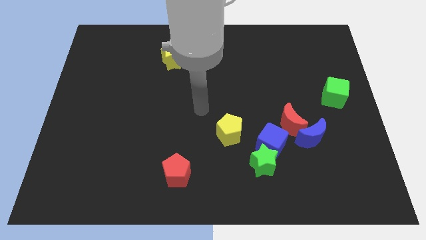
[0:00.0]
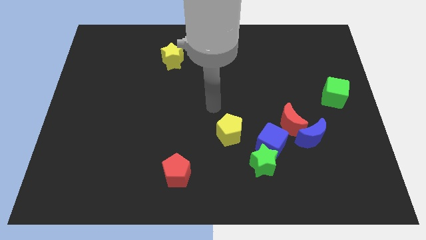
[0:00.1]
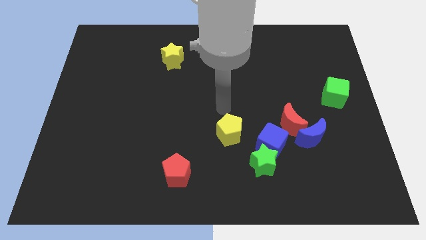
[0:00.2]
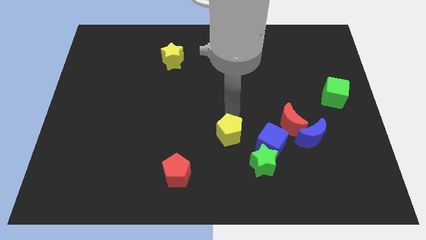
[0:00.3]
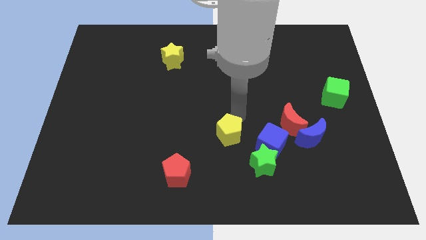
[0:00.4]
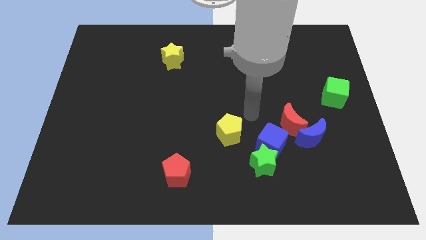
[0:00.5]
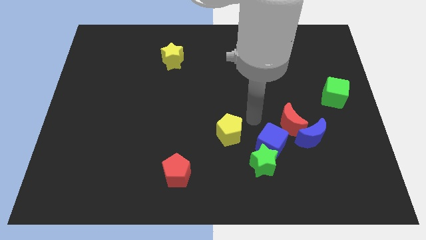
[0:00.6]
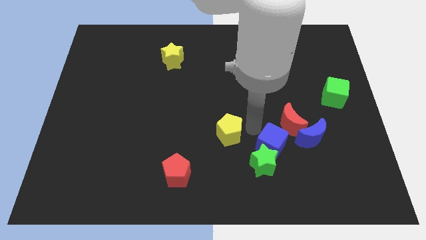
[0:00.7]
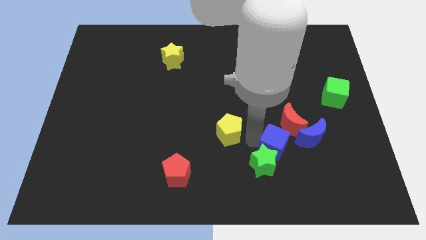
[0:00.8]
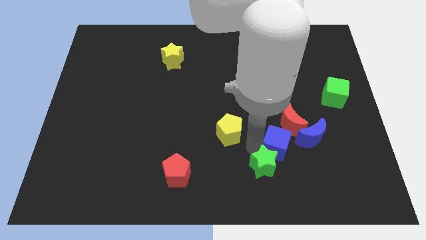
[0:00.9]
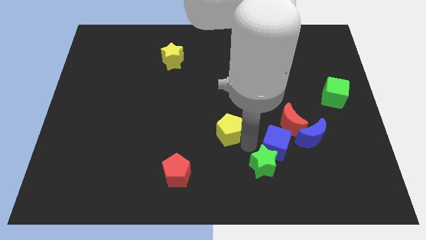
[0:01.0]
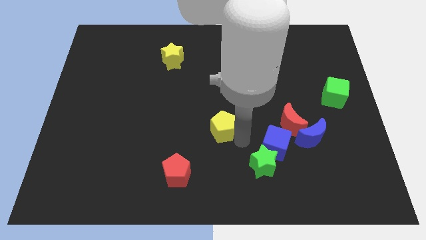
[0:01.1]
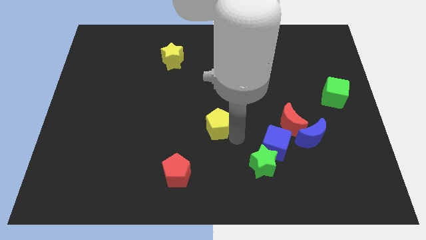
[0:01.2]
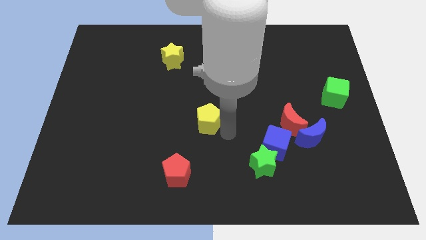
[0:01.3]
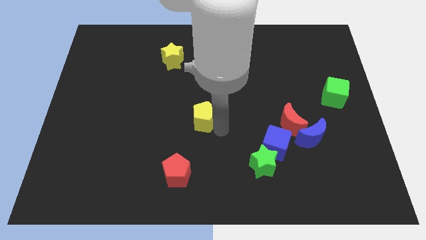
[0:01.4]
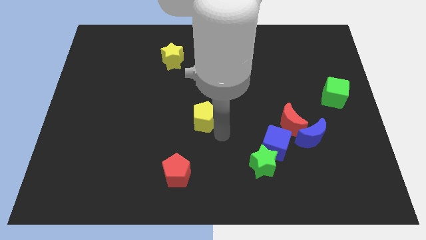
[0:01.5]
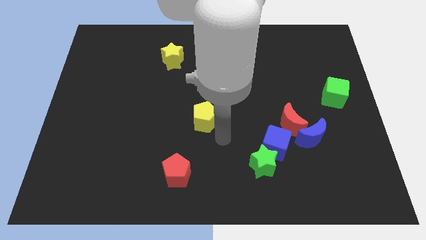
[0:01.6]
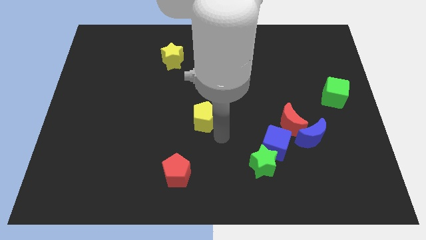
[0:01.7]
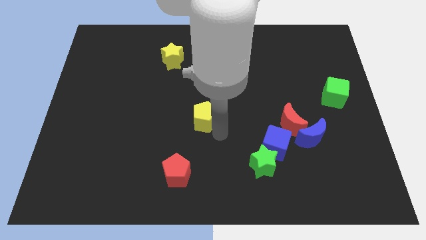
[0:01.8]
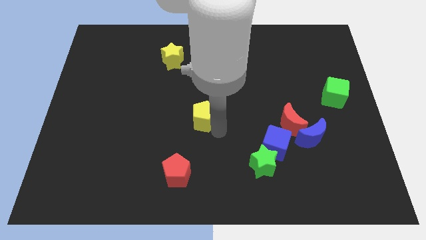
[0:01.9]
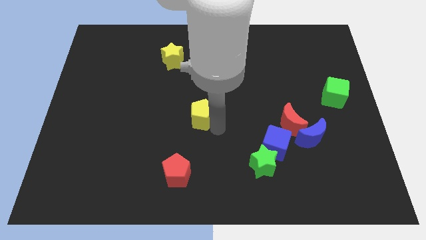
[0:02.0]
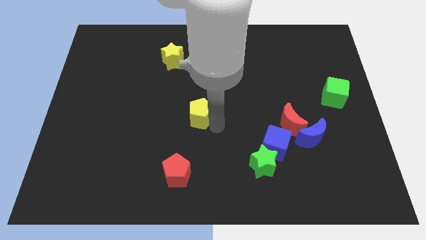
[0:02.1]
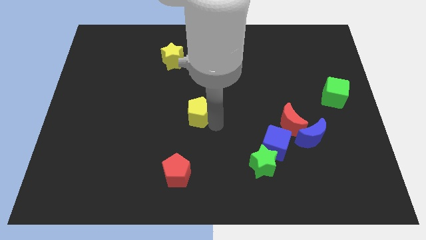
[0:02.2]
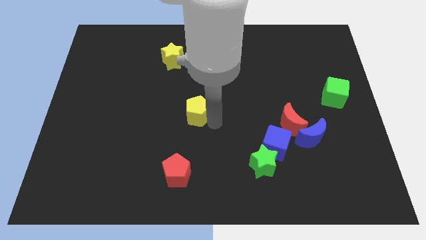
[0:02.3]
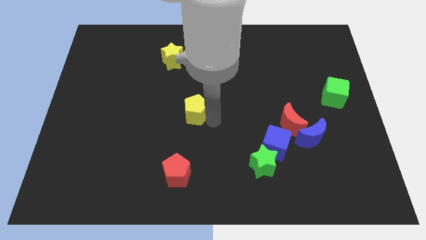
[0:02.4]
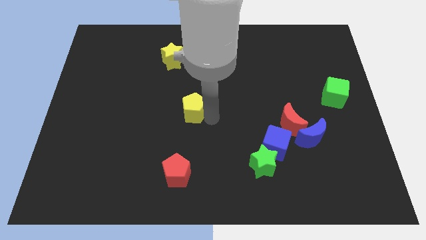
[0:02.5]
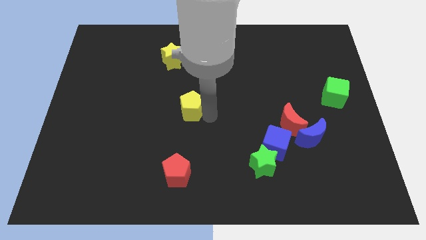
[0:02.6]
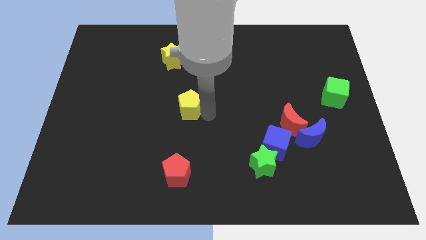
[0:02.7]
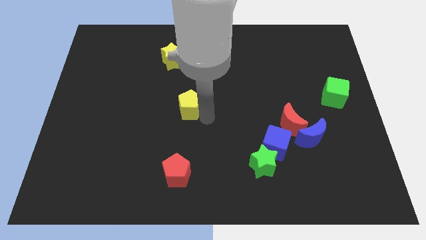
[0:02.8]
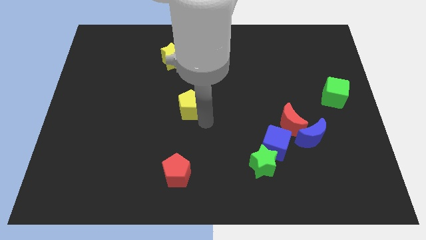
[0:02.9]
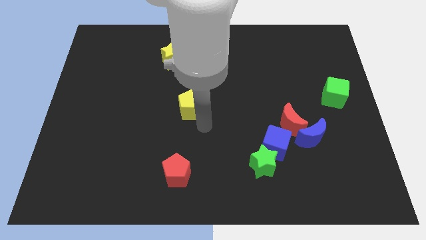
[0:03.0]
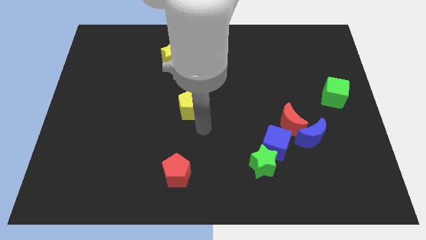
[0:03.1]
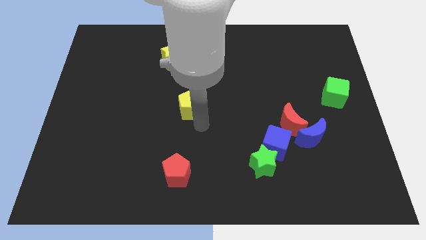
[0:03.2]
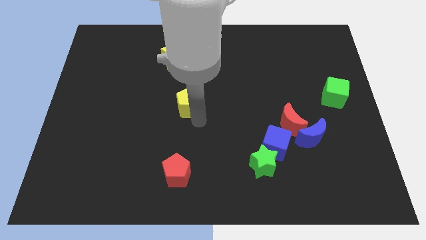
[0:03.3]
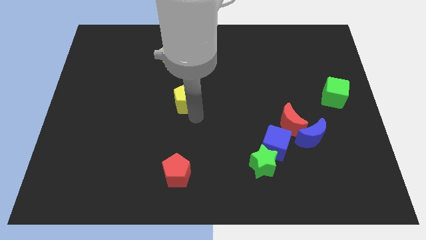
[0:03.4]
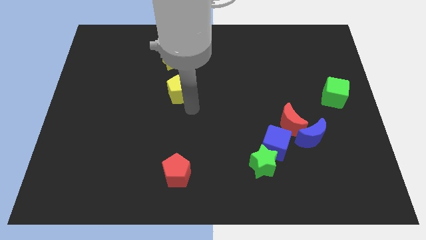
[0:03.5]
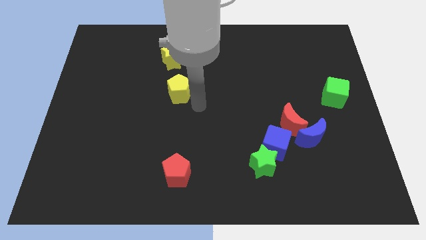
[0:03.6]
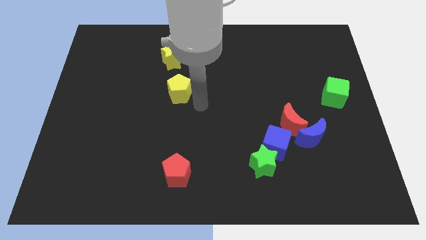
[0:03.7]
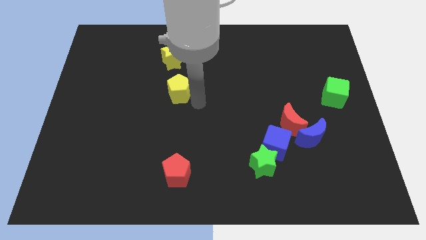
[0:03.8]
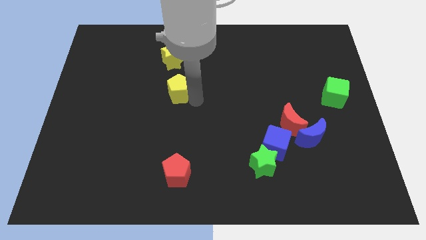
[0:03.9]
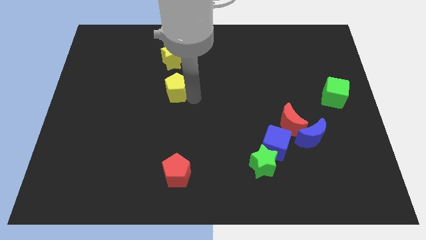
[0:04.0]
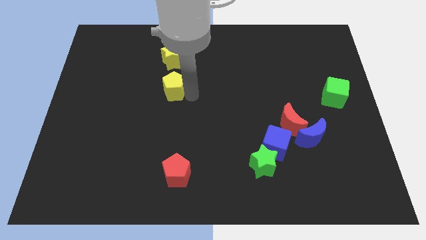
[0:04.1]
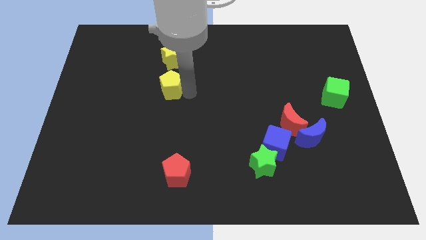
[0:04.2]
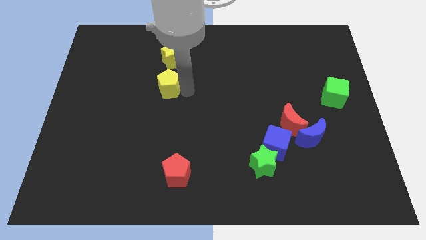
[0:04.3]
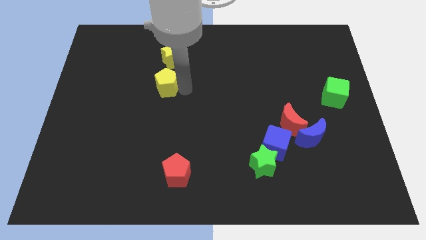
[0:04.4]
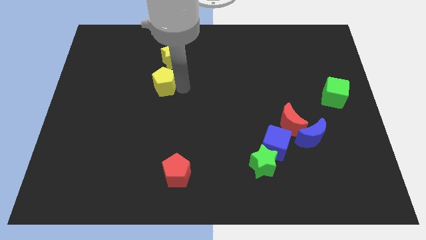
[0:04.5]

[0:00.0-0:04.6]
push the yellow pentagon diagonally down and to the left of the yellow star

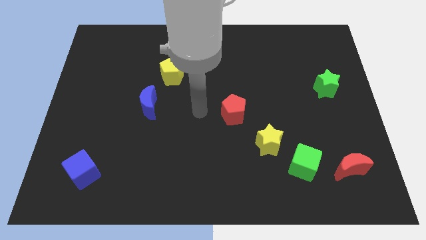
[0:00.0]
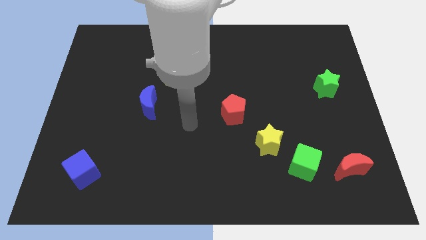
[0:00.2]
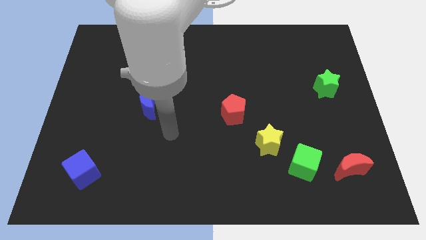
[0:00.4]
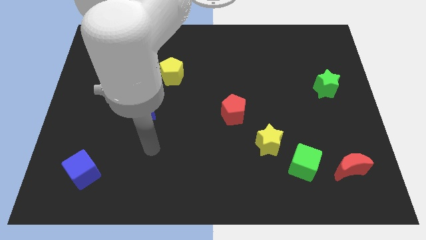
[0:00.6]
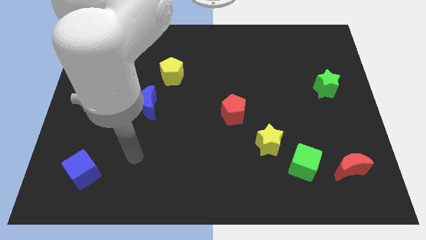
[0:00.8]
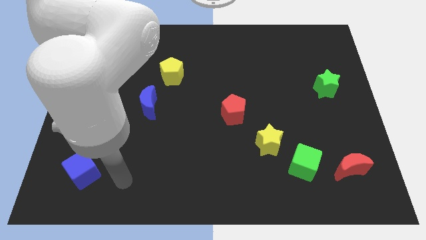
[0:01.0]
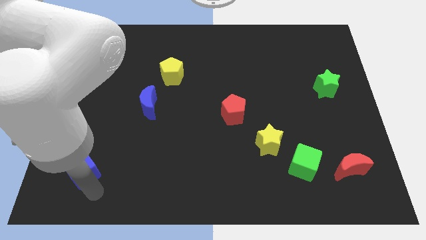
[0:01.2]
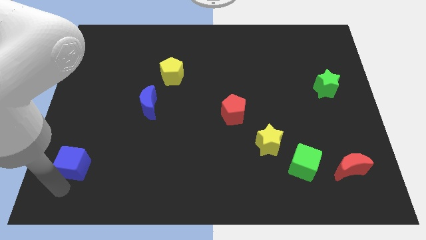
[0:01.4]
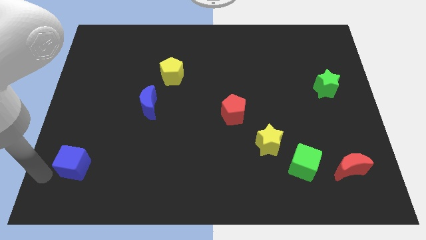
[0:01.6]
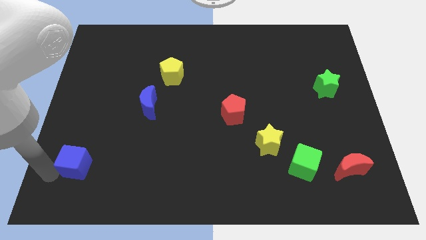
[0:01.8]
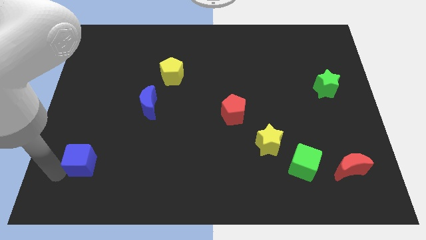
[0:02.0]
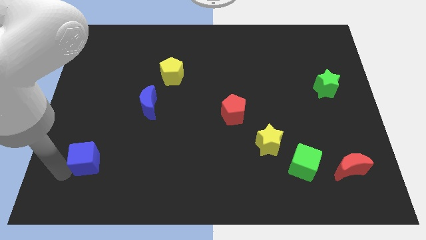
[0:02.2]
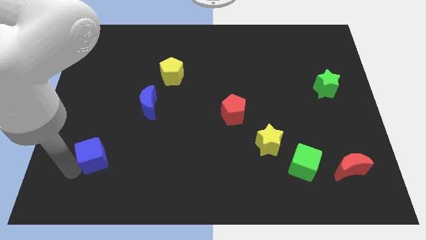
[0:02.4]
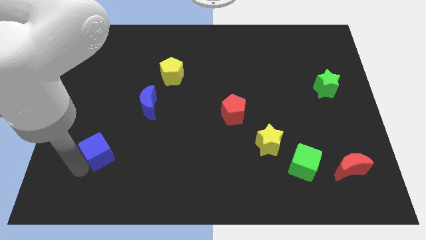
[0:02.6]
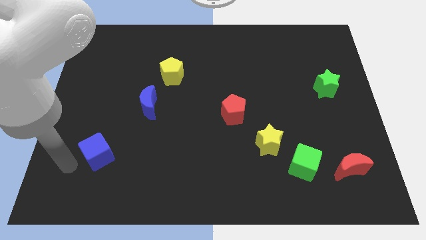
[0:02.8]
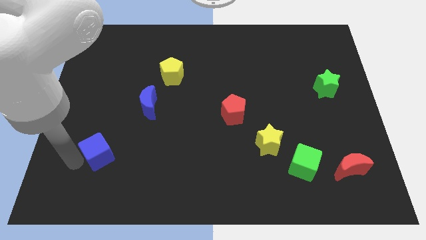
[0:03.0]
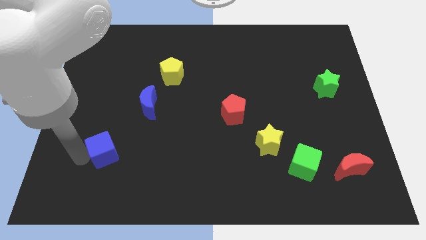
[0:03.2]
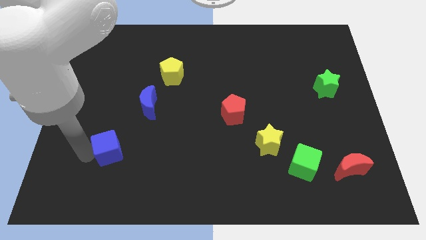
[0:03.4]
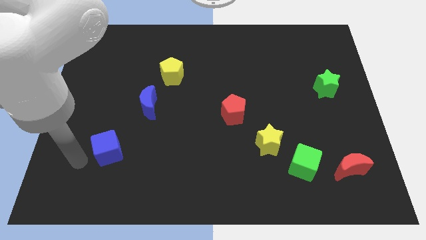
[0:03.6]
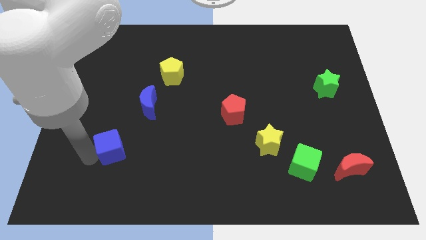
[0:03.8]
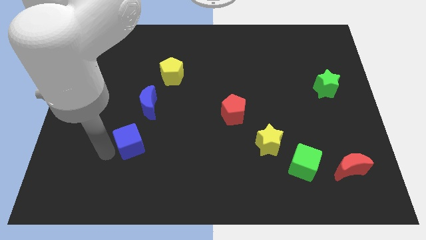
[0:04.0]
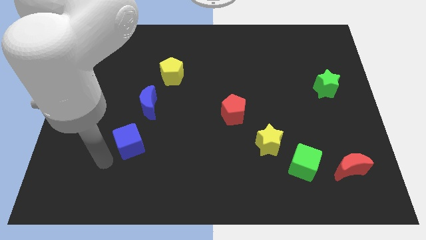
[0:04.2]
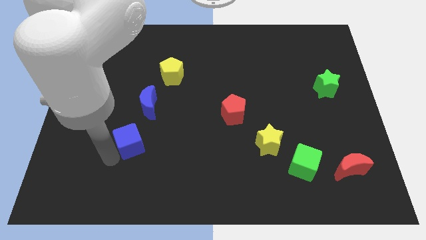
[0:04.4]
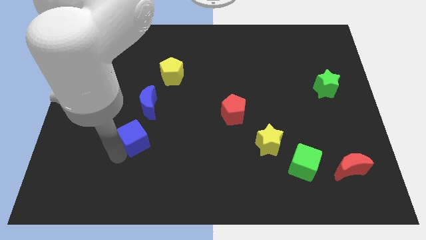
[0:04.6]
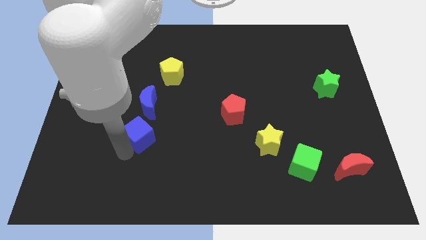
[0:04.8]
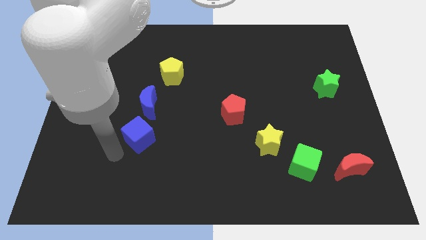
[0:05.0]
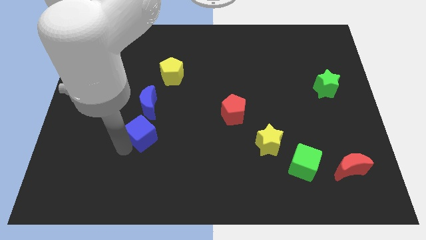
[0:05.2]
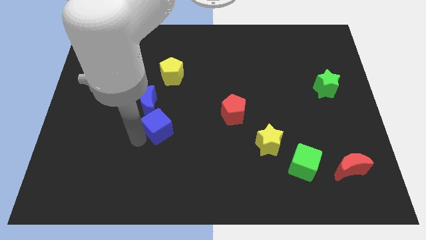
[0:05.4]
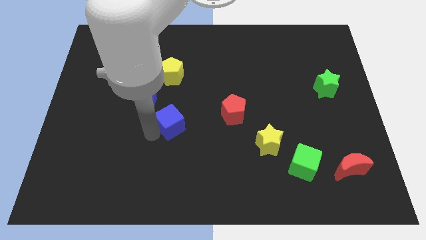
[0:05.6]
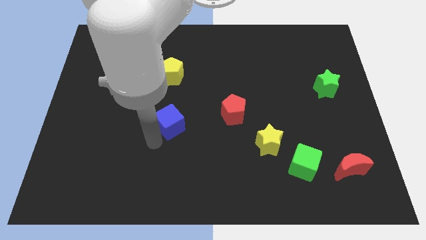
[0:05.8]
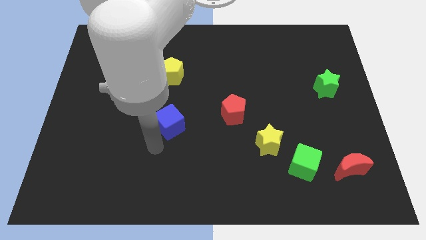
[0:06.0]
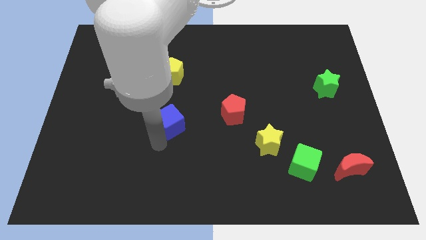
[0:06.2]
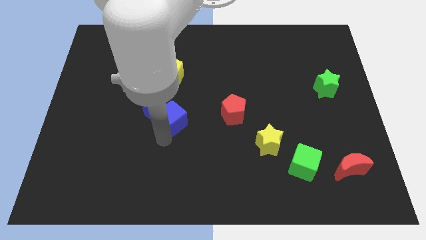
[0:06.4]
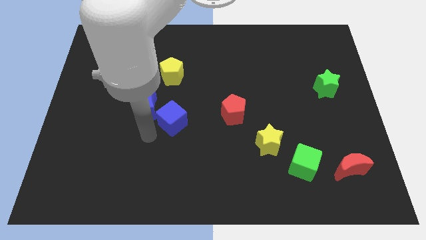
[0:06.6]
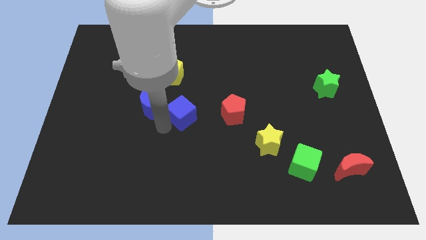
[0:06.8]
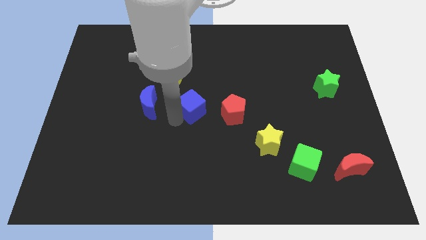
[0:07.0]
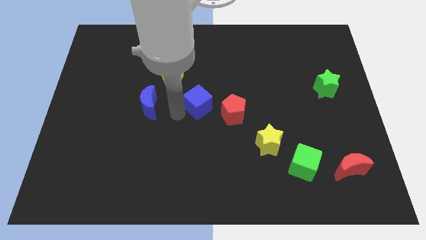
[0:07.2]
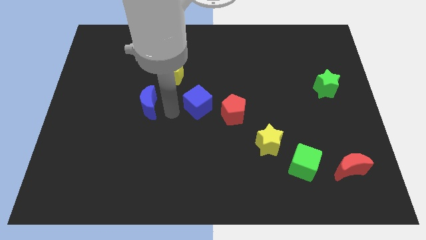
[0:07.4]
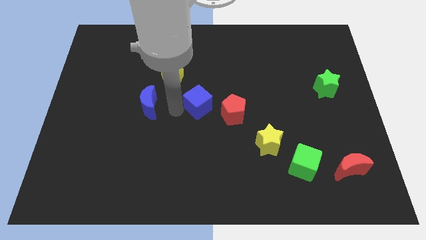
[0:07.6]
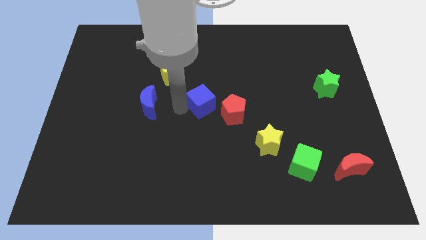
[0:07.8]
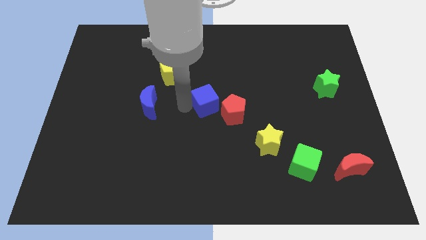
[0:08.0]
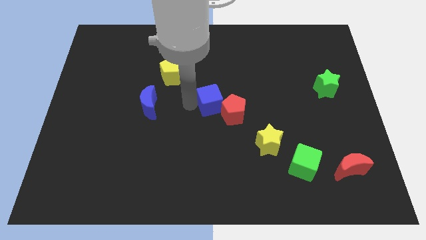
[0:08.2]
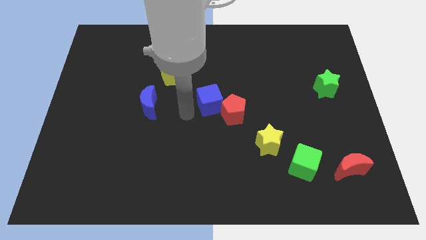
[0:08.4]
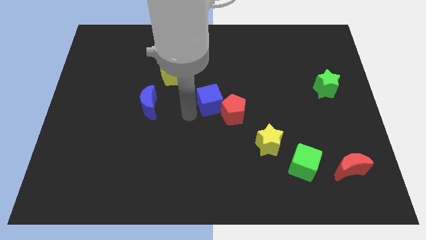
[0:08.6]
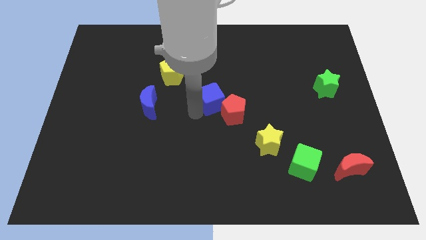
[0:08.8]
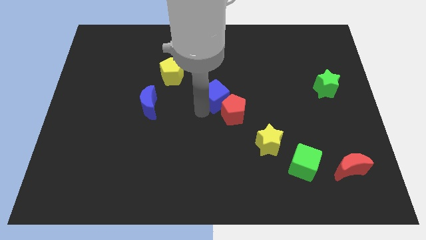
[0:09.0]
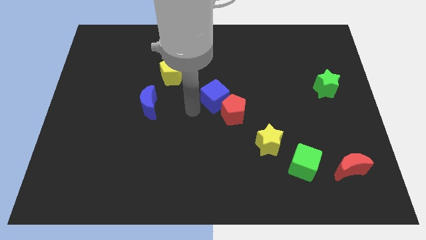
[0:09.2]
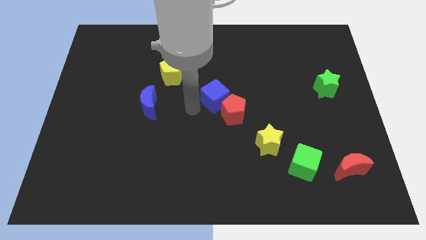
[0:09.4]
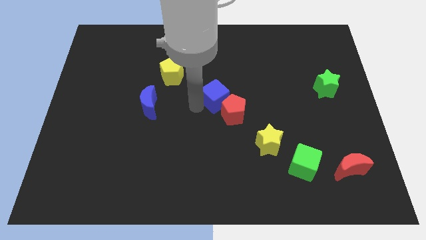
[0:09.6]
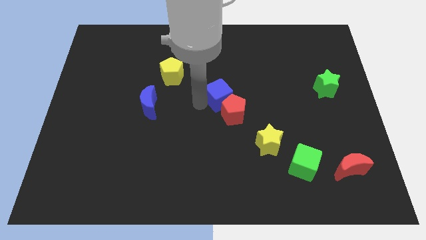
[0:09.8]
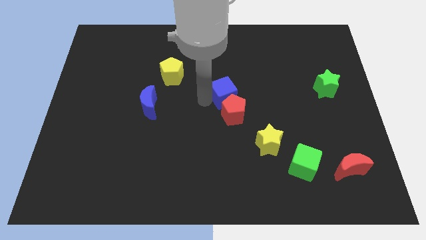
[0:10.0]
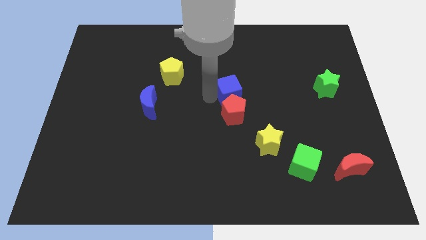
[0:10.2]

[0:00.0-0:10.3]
put the blue cube to the top right side of the red pentagon
